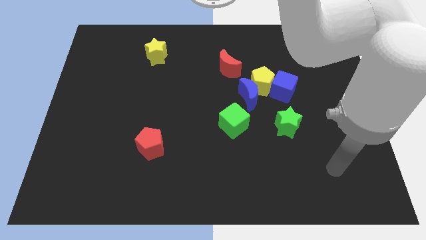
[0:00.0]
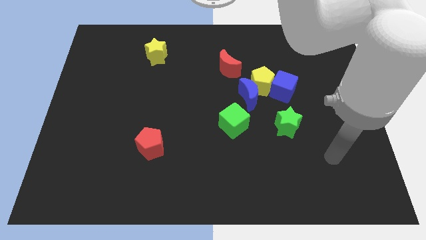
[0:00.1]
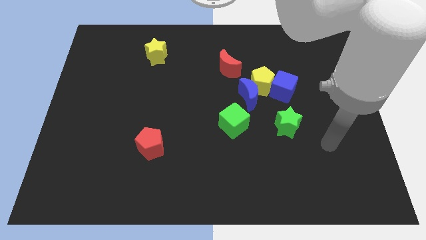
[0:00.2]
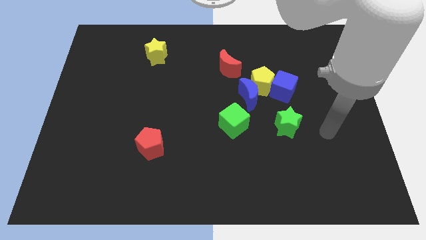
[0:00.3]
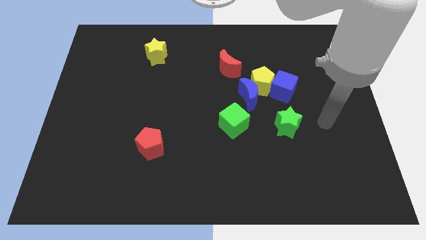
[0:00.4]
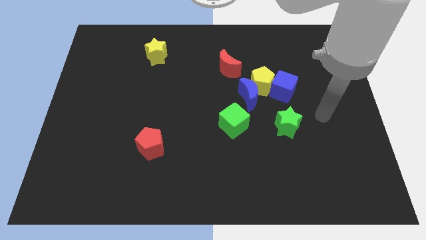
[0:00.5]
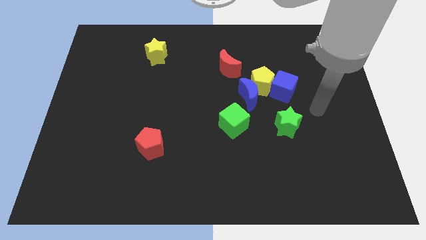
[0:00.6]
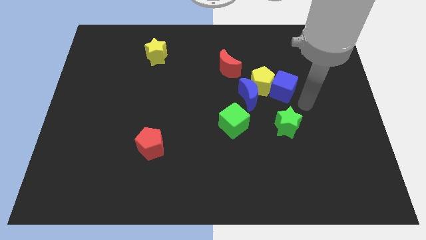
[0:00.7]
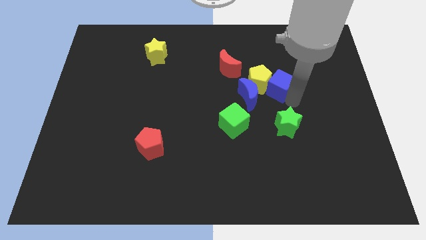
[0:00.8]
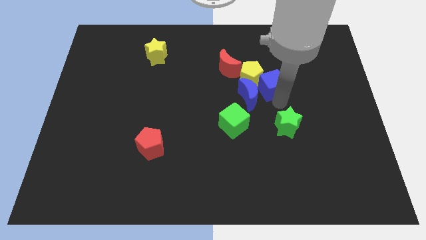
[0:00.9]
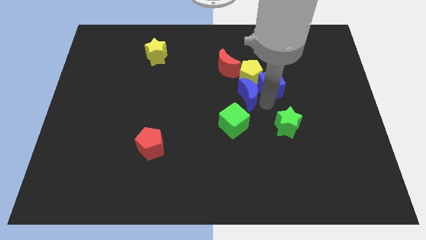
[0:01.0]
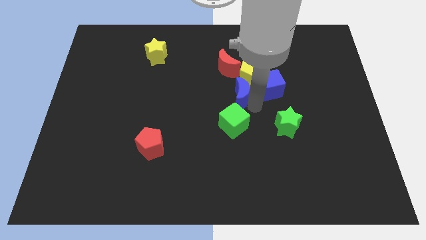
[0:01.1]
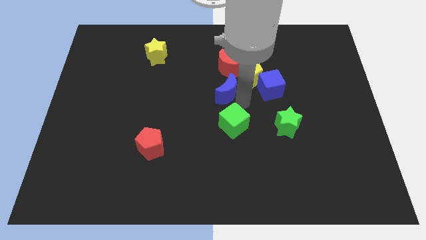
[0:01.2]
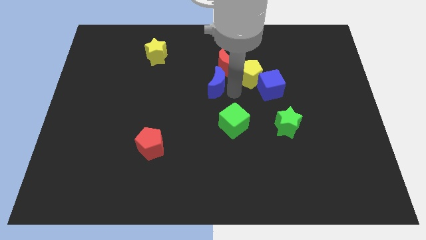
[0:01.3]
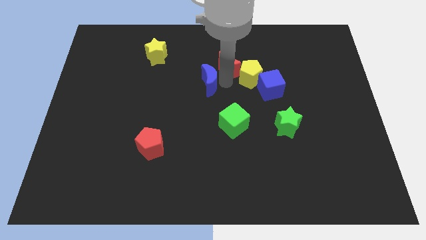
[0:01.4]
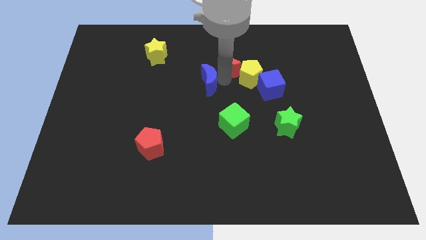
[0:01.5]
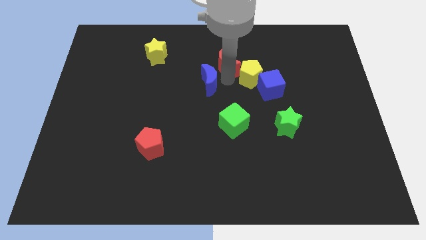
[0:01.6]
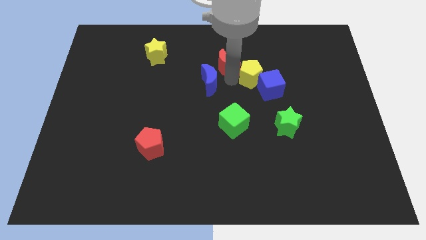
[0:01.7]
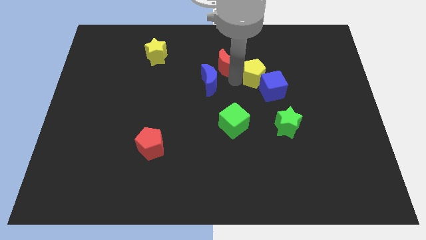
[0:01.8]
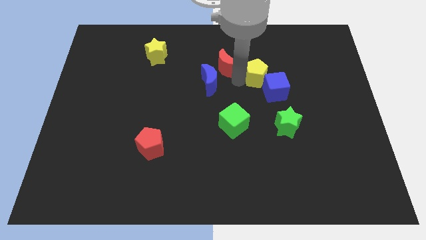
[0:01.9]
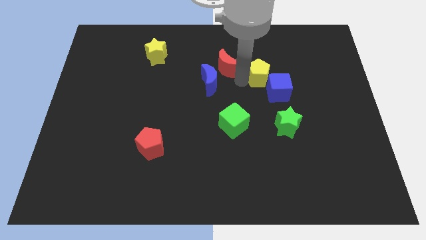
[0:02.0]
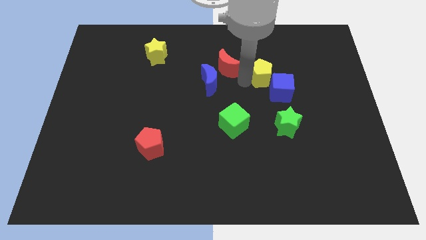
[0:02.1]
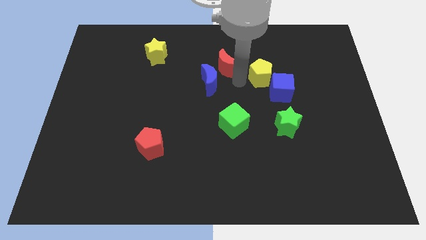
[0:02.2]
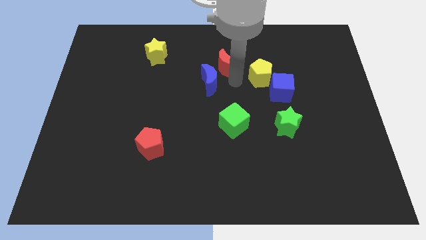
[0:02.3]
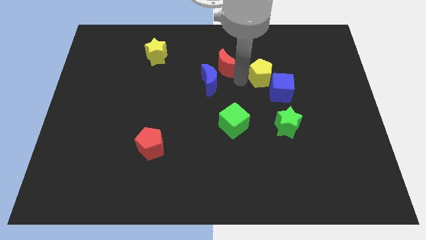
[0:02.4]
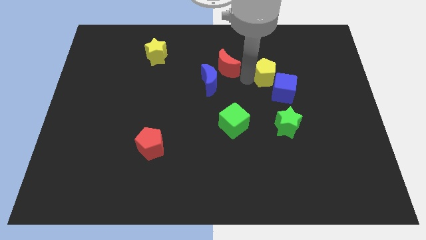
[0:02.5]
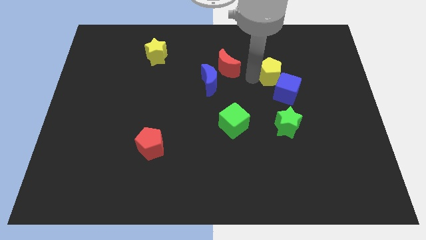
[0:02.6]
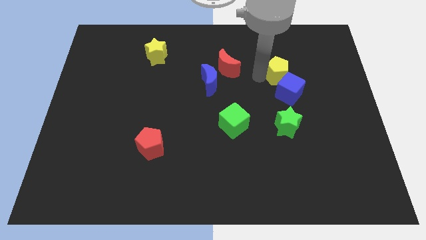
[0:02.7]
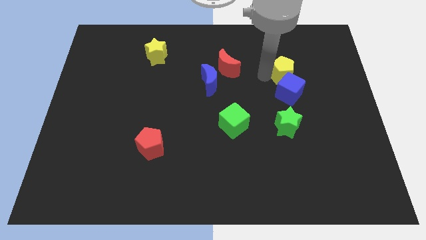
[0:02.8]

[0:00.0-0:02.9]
move the yellow pentagon away from the blue moon, blue cube, and red moon

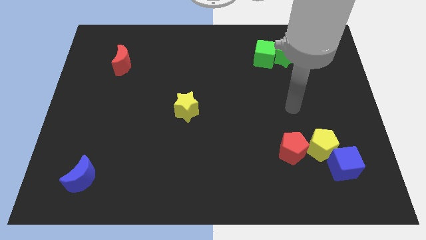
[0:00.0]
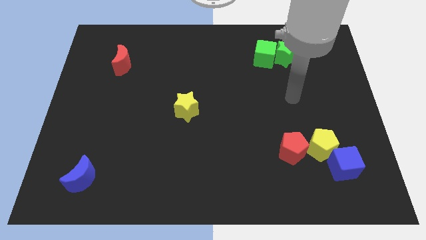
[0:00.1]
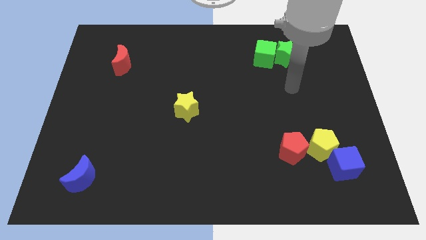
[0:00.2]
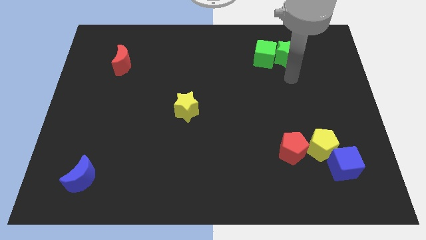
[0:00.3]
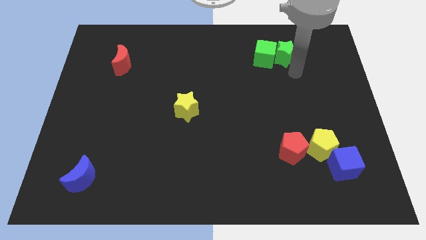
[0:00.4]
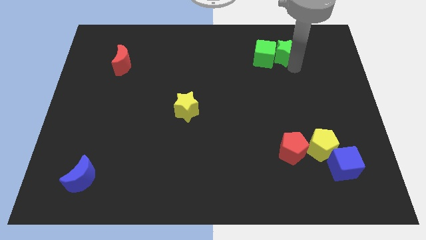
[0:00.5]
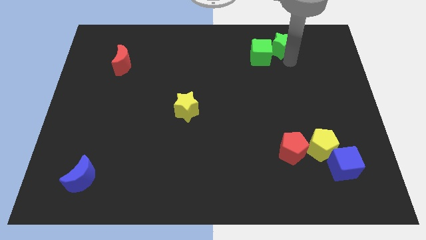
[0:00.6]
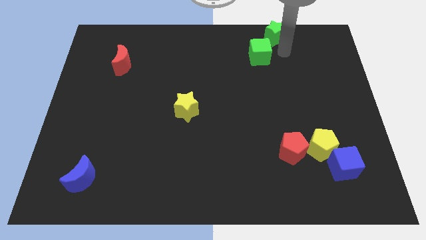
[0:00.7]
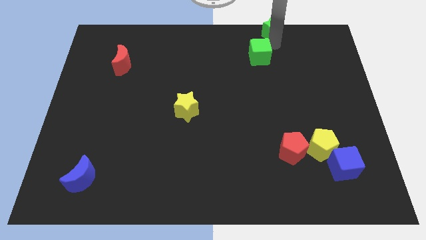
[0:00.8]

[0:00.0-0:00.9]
pull the green cube apart from the green star

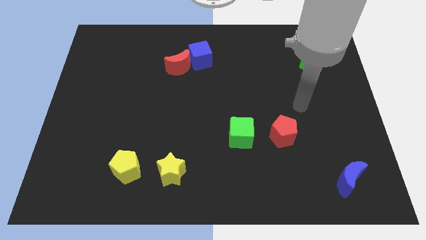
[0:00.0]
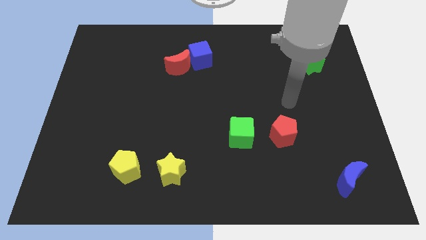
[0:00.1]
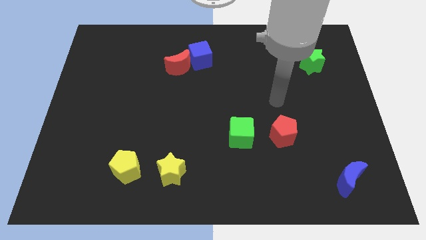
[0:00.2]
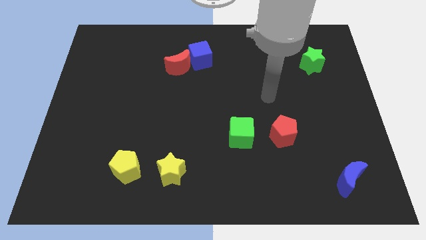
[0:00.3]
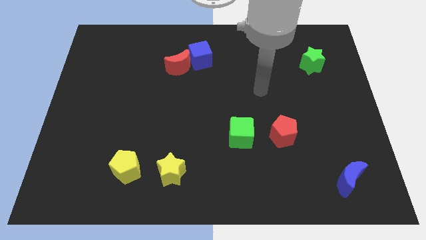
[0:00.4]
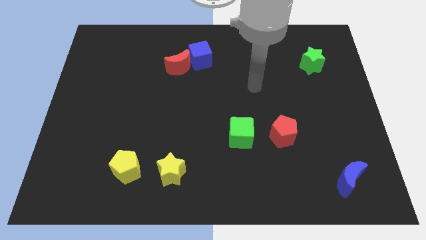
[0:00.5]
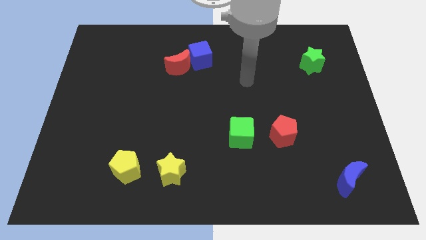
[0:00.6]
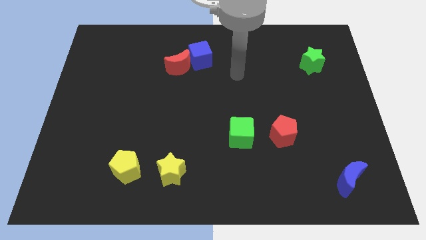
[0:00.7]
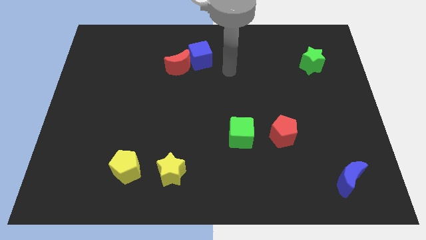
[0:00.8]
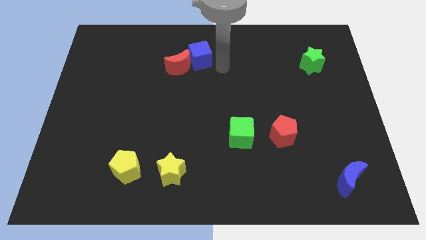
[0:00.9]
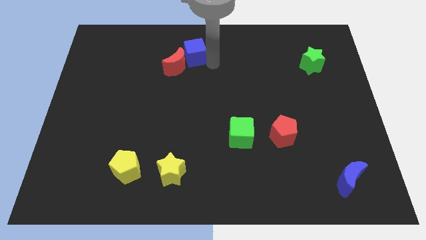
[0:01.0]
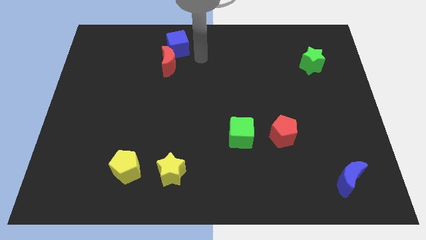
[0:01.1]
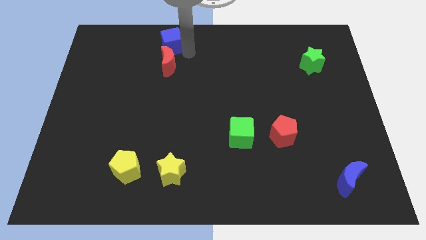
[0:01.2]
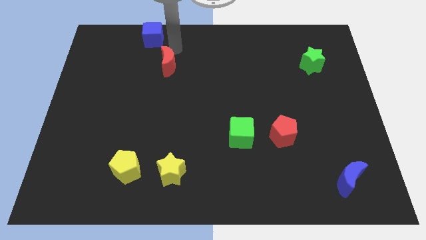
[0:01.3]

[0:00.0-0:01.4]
separate the red moon from the blue cube

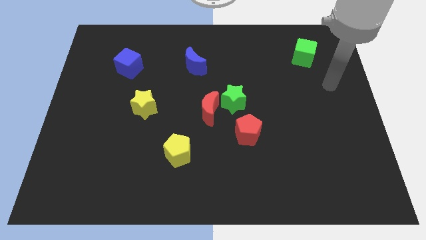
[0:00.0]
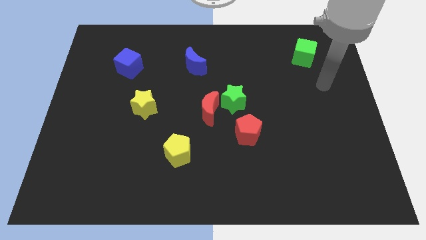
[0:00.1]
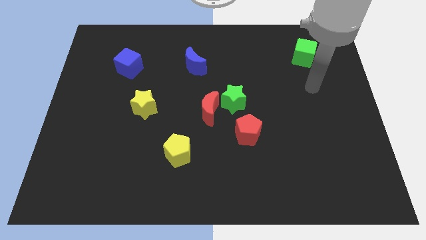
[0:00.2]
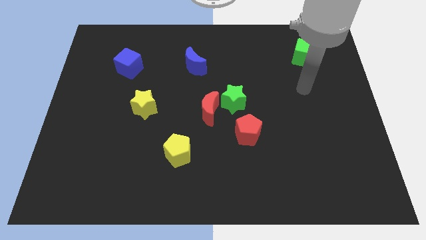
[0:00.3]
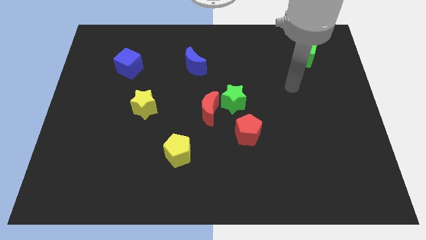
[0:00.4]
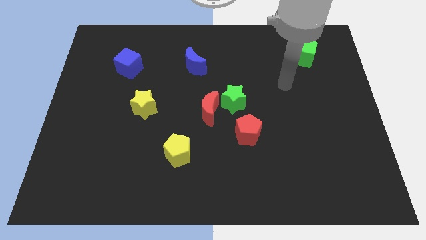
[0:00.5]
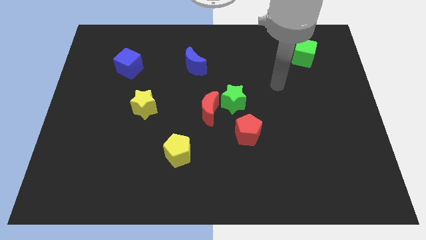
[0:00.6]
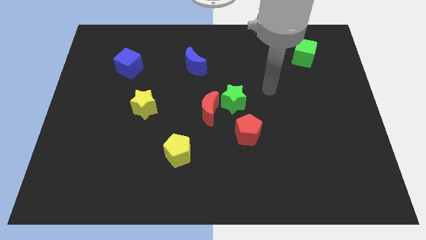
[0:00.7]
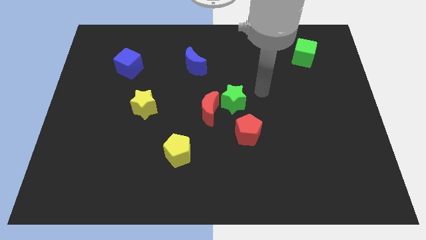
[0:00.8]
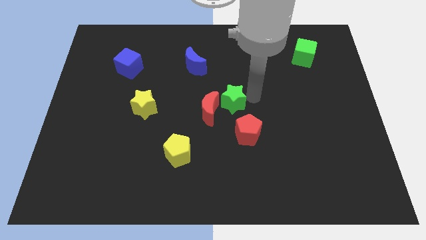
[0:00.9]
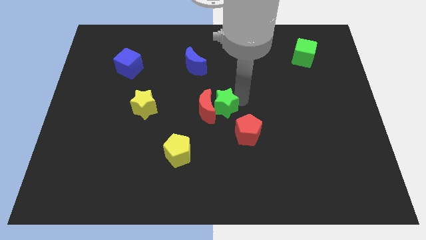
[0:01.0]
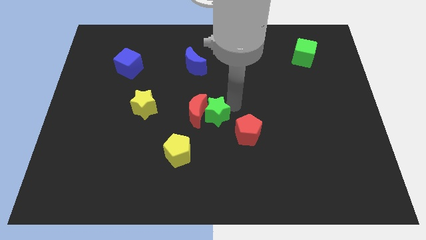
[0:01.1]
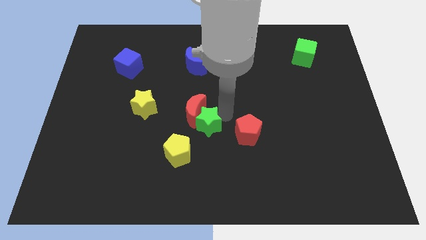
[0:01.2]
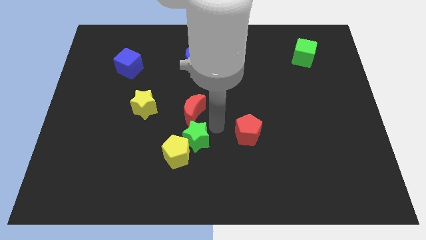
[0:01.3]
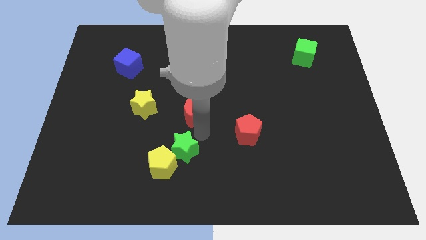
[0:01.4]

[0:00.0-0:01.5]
move the red moon away from the green star

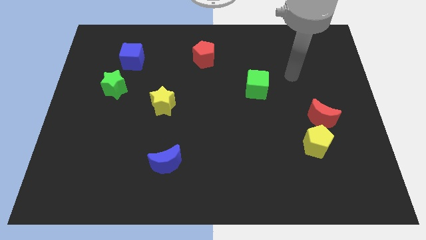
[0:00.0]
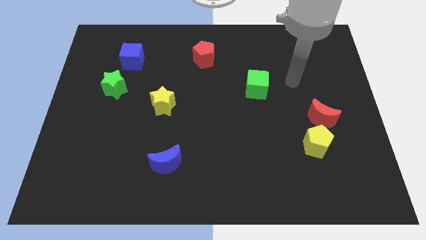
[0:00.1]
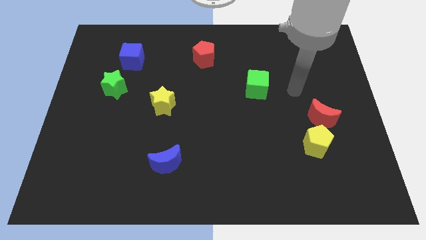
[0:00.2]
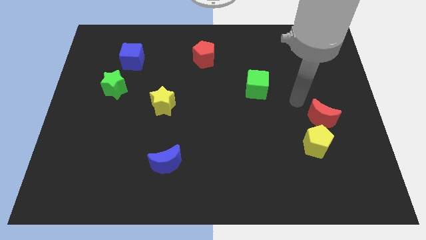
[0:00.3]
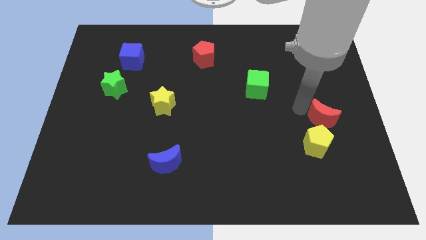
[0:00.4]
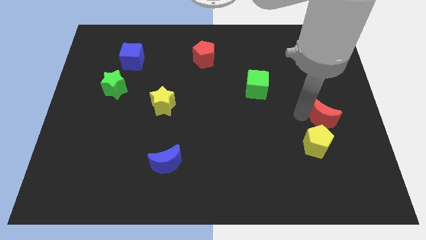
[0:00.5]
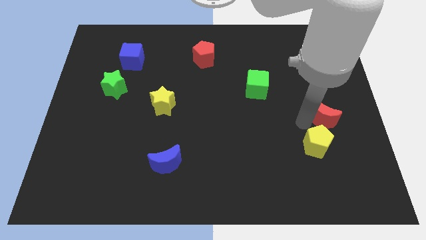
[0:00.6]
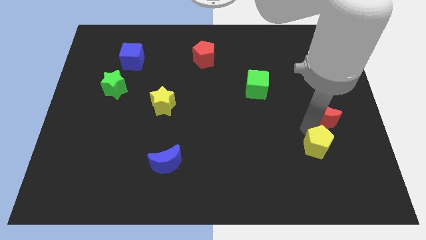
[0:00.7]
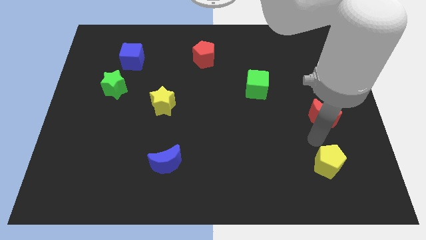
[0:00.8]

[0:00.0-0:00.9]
separate the red moon from the yellow pentagon

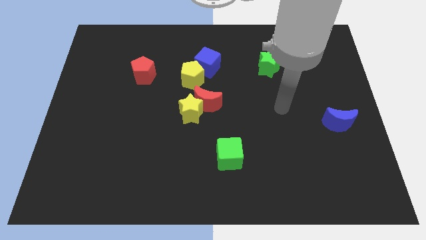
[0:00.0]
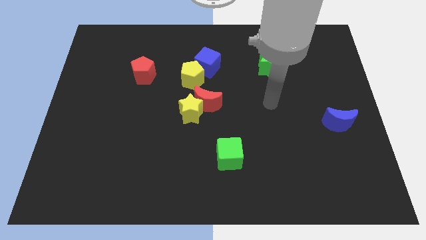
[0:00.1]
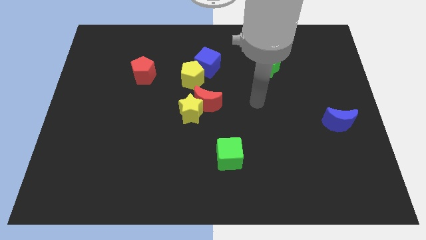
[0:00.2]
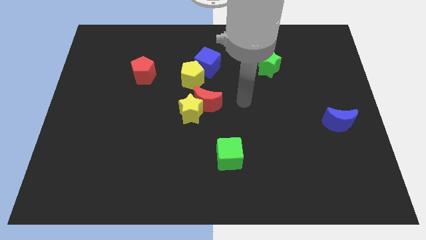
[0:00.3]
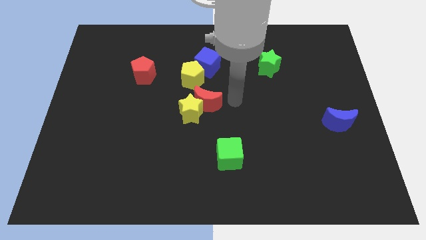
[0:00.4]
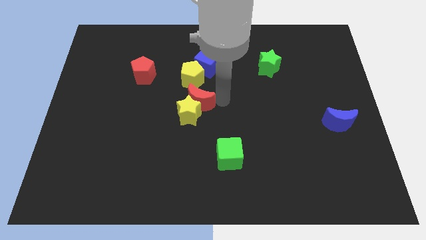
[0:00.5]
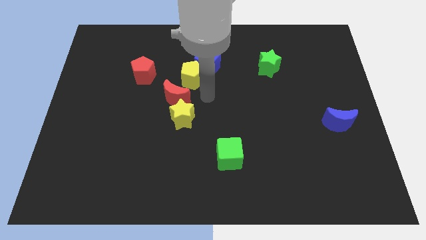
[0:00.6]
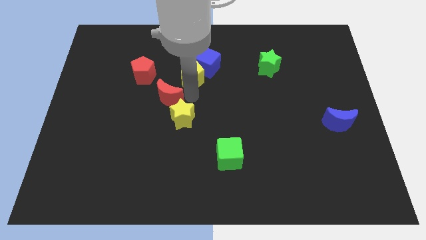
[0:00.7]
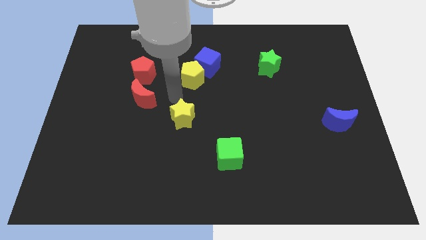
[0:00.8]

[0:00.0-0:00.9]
separate the yellow star from the red moon

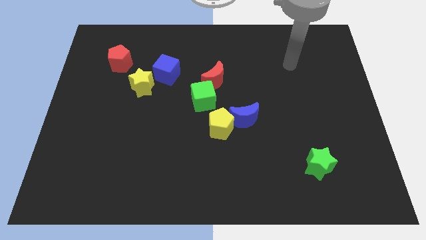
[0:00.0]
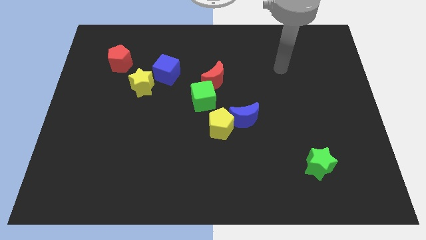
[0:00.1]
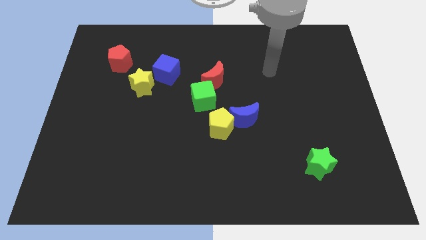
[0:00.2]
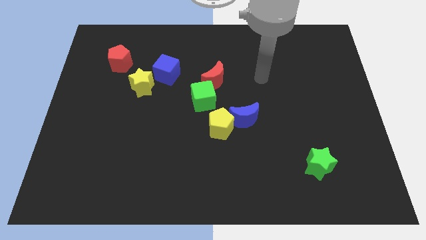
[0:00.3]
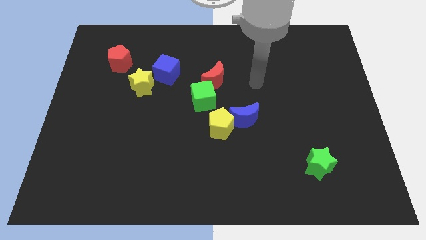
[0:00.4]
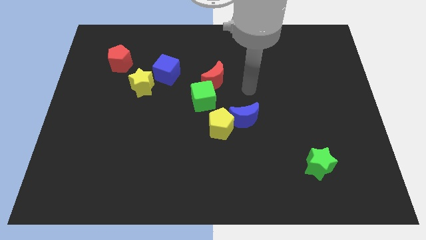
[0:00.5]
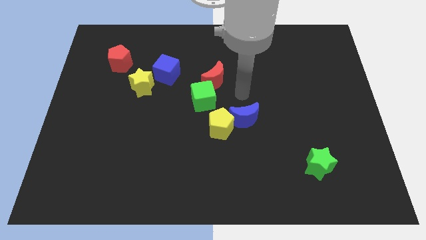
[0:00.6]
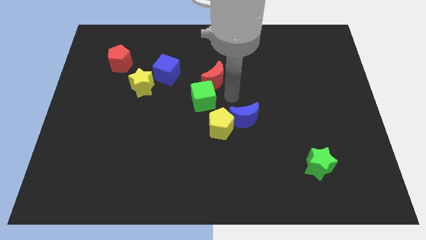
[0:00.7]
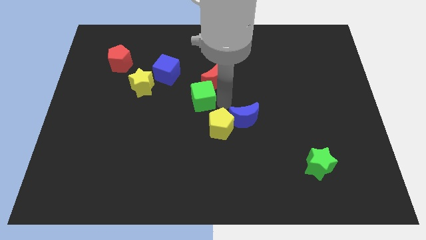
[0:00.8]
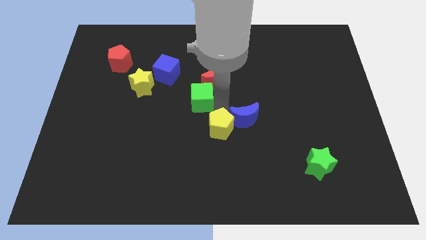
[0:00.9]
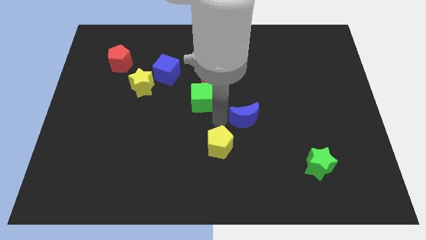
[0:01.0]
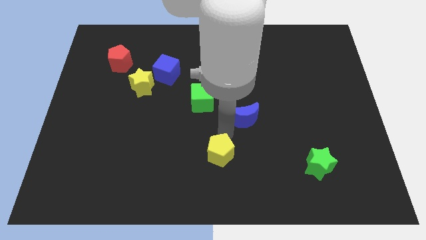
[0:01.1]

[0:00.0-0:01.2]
separate the blue moon from the yellow pentagon
